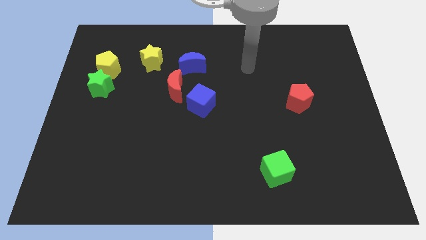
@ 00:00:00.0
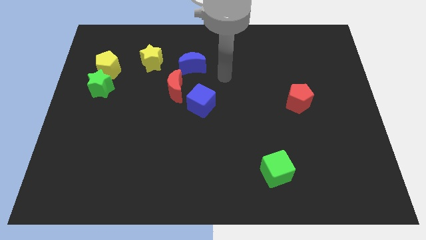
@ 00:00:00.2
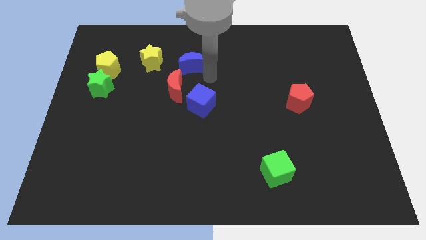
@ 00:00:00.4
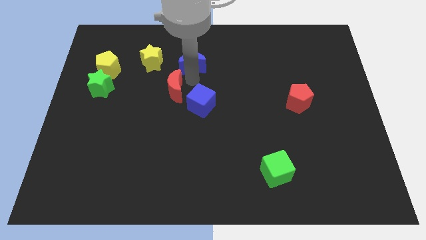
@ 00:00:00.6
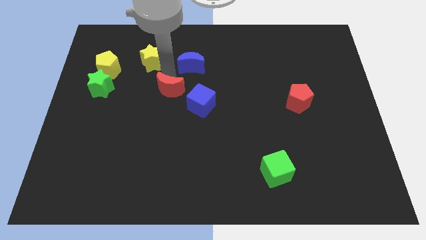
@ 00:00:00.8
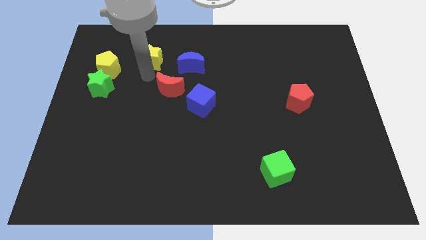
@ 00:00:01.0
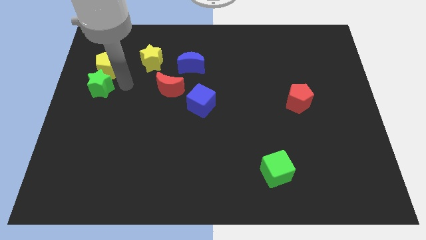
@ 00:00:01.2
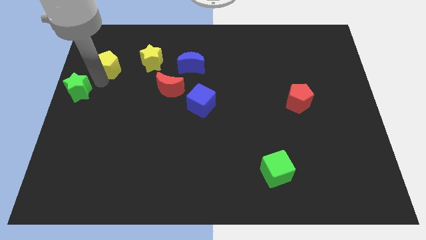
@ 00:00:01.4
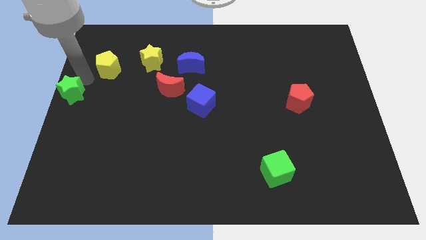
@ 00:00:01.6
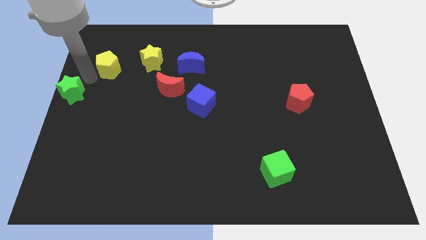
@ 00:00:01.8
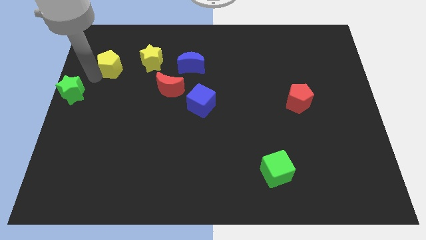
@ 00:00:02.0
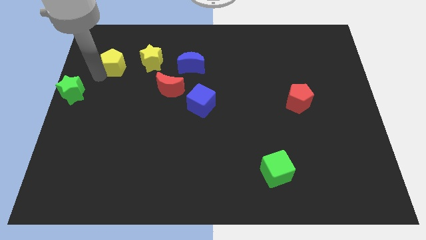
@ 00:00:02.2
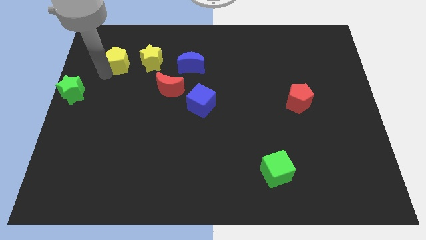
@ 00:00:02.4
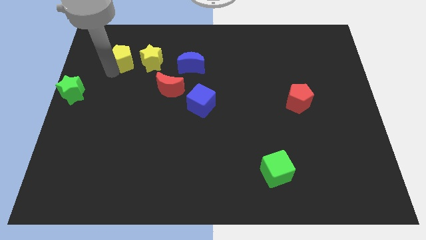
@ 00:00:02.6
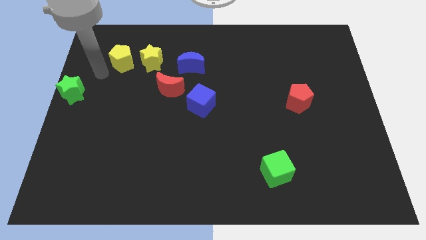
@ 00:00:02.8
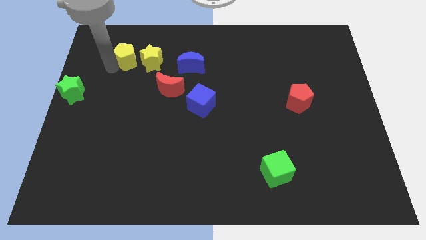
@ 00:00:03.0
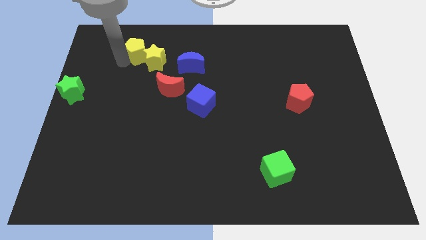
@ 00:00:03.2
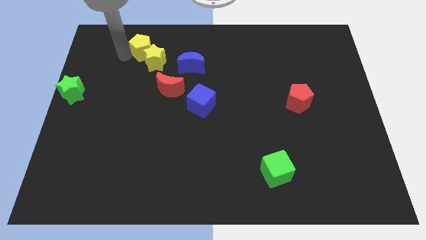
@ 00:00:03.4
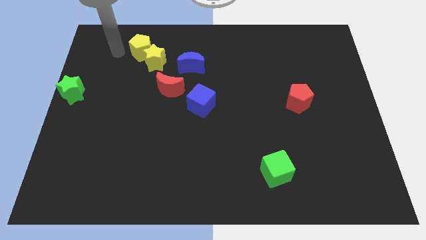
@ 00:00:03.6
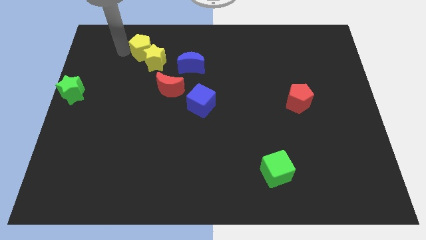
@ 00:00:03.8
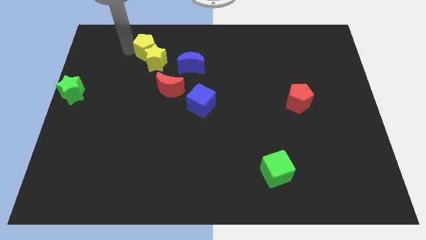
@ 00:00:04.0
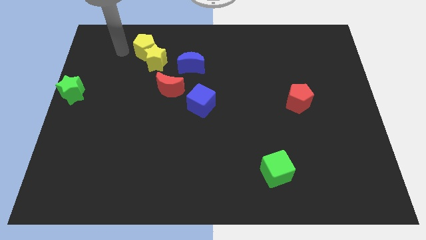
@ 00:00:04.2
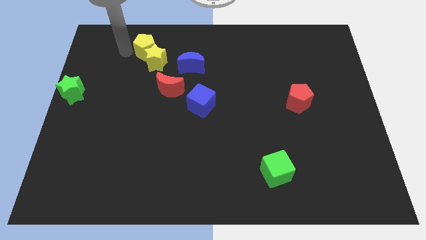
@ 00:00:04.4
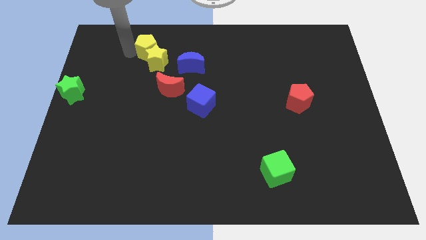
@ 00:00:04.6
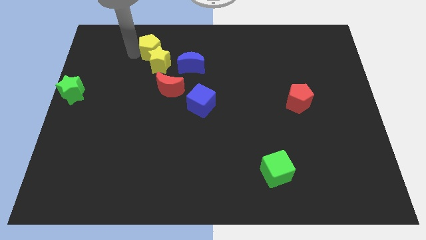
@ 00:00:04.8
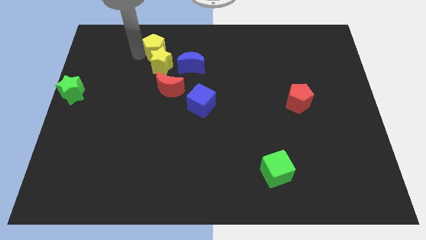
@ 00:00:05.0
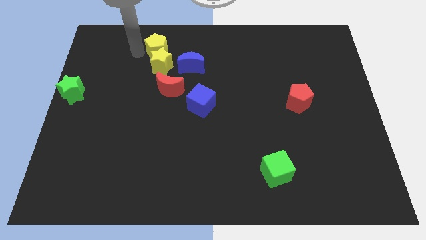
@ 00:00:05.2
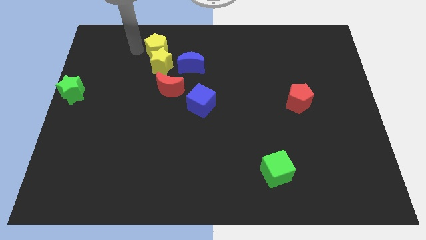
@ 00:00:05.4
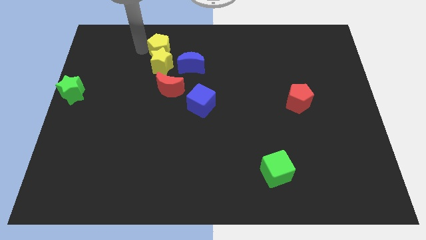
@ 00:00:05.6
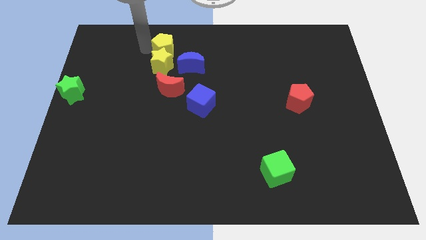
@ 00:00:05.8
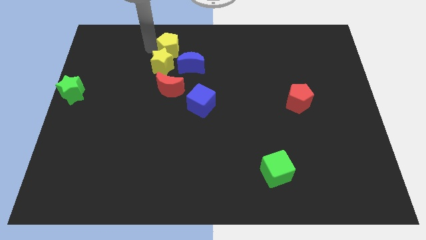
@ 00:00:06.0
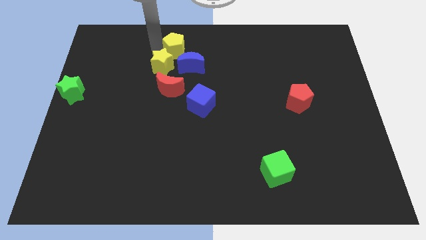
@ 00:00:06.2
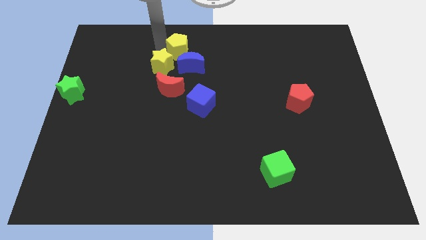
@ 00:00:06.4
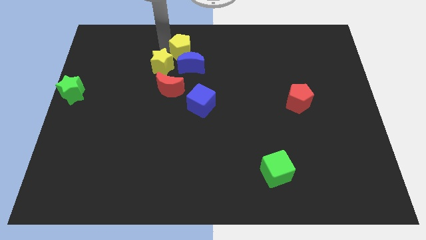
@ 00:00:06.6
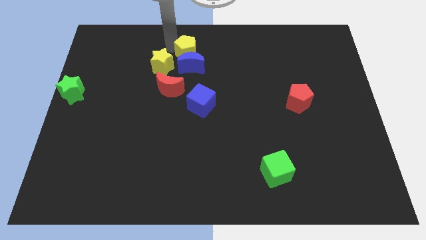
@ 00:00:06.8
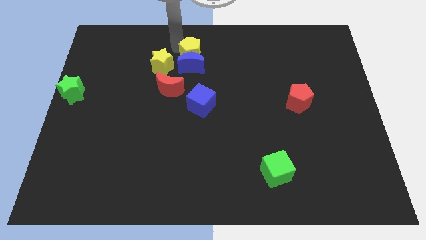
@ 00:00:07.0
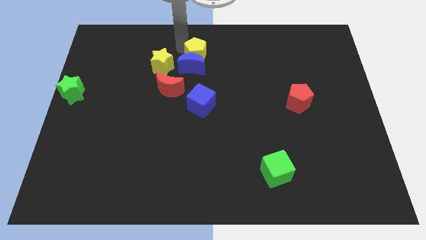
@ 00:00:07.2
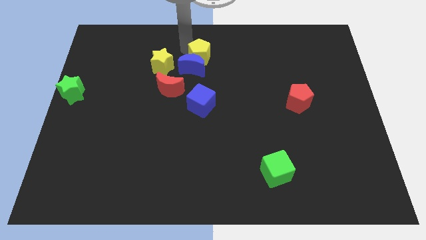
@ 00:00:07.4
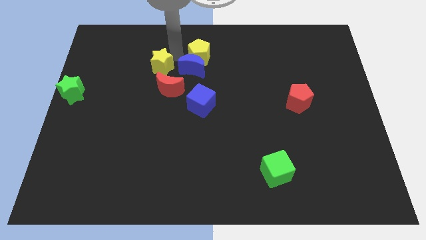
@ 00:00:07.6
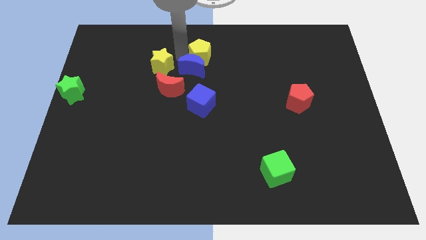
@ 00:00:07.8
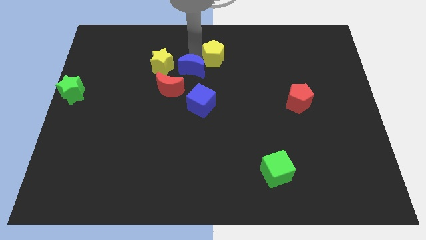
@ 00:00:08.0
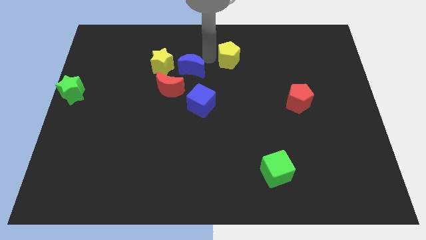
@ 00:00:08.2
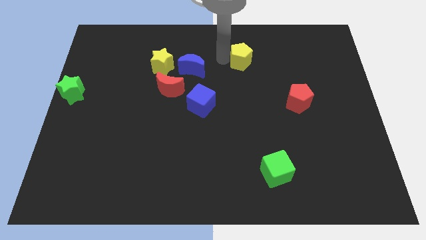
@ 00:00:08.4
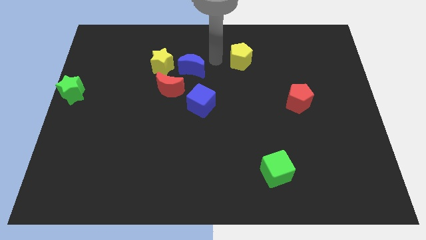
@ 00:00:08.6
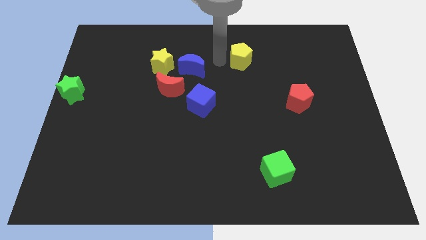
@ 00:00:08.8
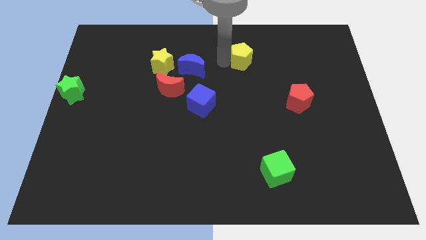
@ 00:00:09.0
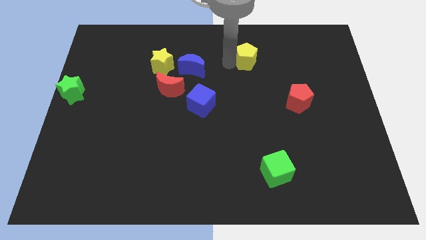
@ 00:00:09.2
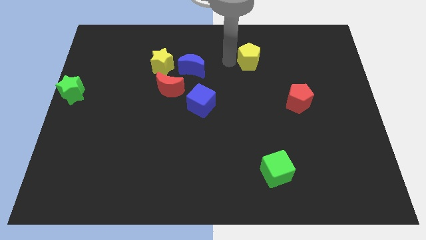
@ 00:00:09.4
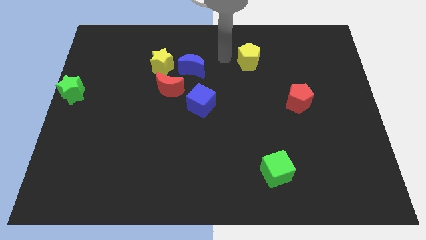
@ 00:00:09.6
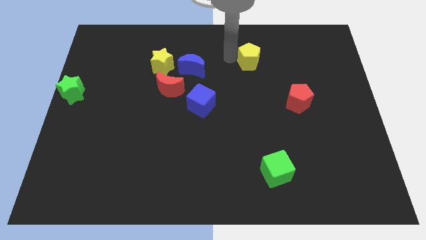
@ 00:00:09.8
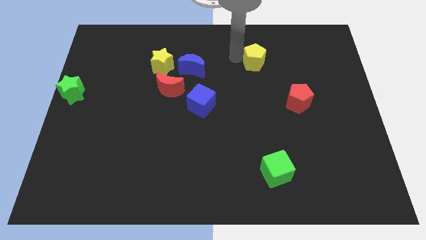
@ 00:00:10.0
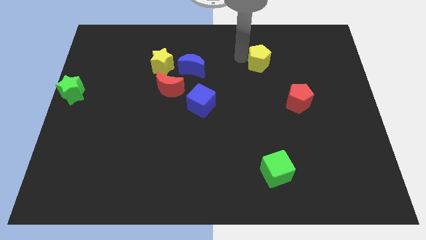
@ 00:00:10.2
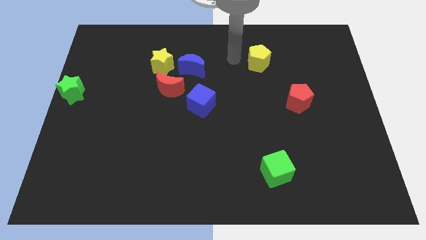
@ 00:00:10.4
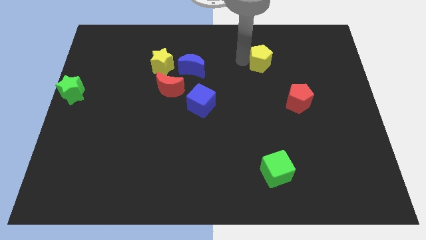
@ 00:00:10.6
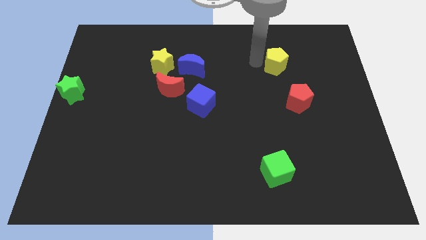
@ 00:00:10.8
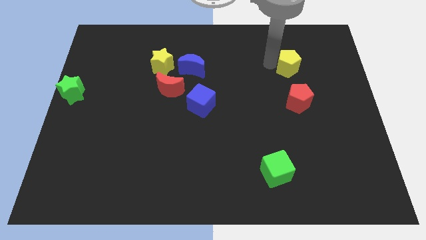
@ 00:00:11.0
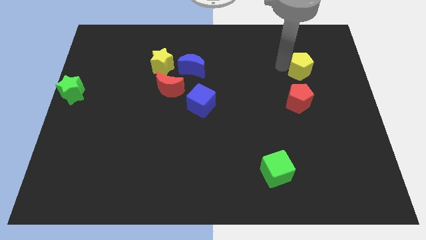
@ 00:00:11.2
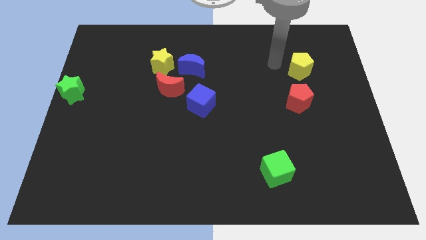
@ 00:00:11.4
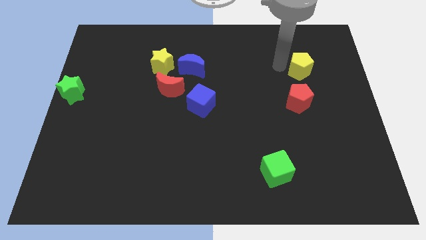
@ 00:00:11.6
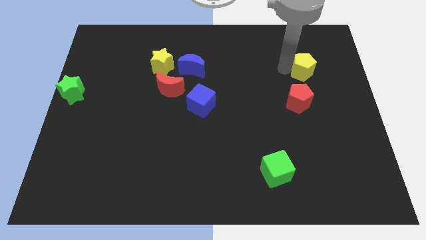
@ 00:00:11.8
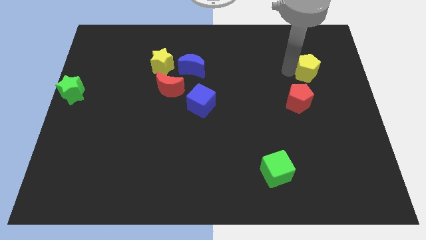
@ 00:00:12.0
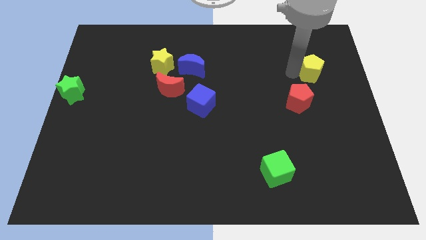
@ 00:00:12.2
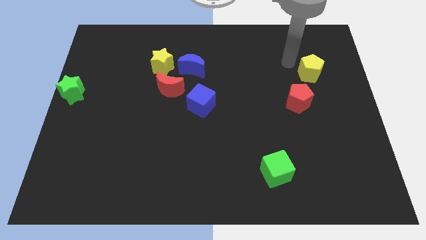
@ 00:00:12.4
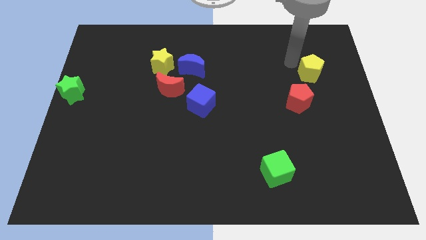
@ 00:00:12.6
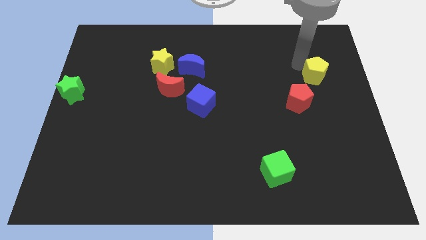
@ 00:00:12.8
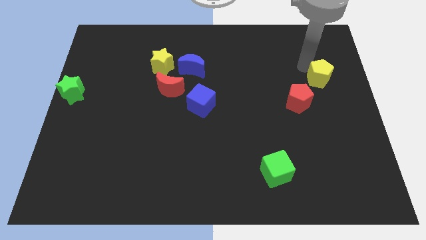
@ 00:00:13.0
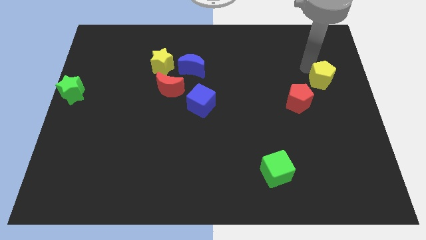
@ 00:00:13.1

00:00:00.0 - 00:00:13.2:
put the yellow pentagon to the center right
